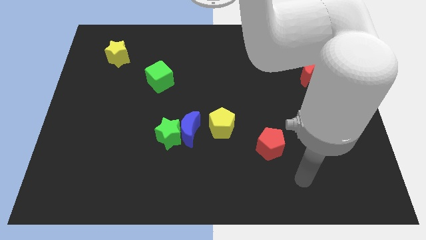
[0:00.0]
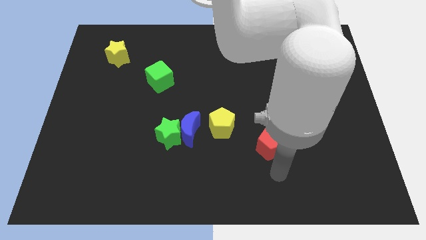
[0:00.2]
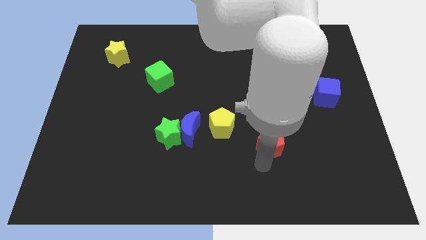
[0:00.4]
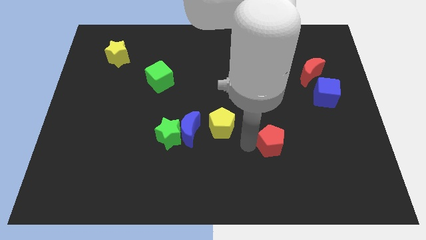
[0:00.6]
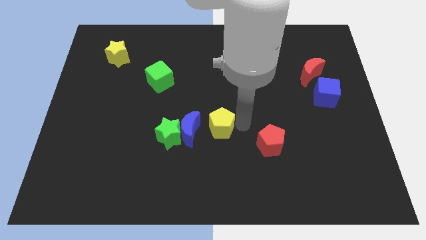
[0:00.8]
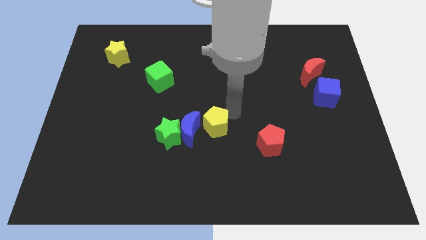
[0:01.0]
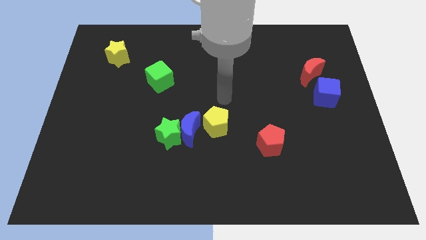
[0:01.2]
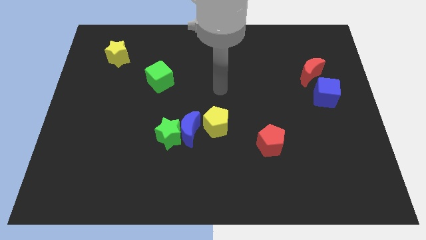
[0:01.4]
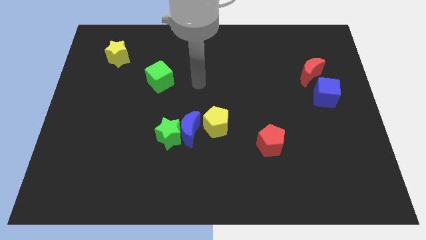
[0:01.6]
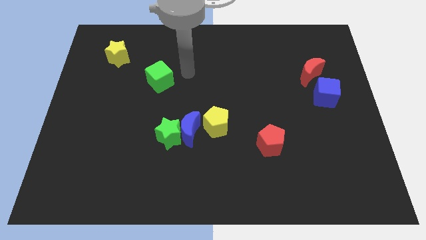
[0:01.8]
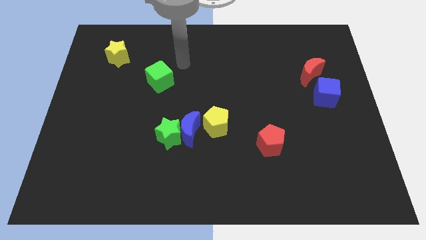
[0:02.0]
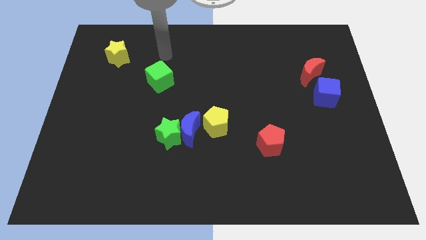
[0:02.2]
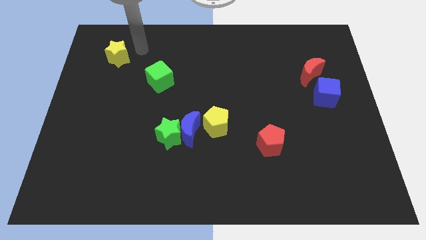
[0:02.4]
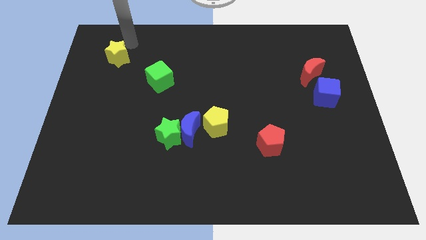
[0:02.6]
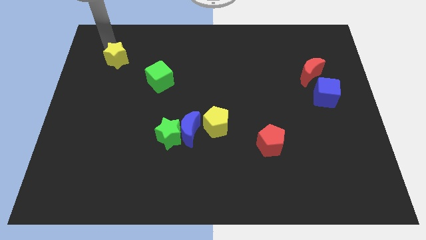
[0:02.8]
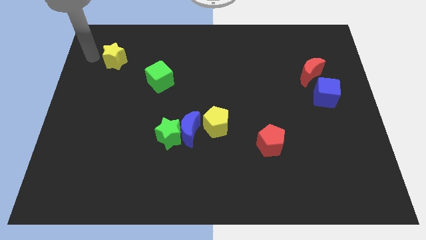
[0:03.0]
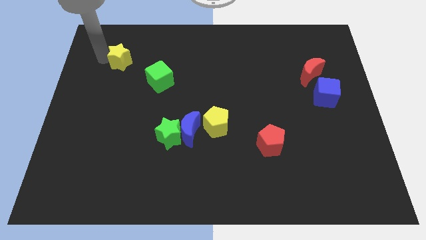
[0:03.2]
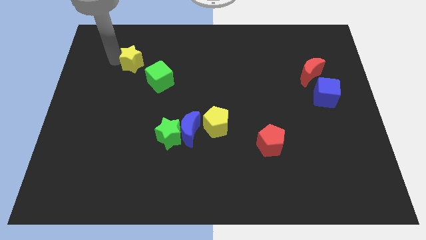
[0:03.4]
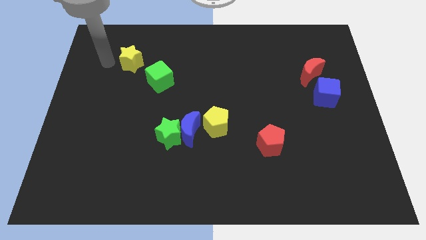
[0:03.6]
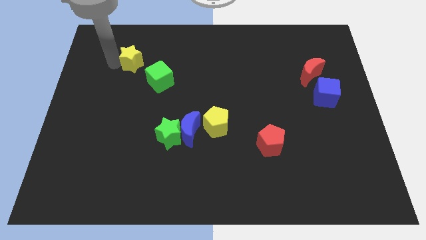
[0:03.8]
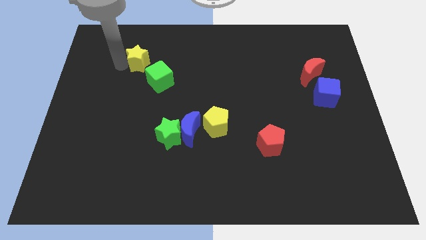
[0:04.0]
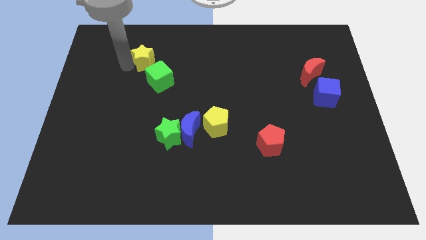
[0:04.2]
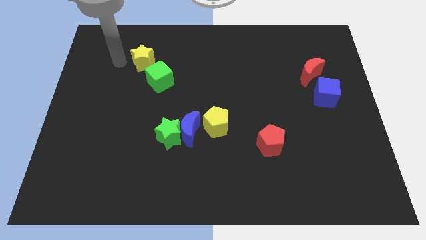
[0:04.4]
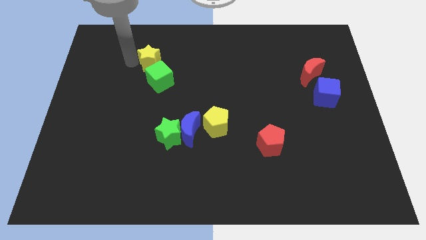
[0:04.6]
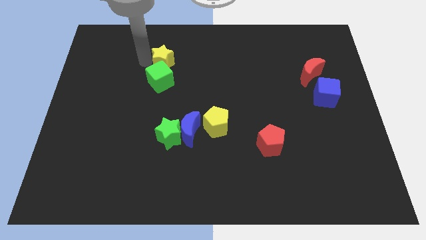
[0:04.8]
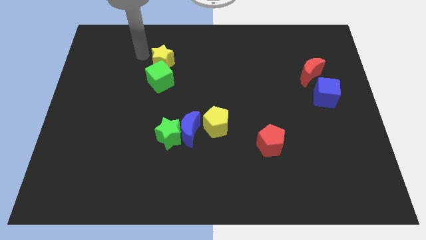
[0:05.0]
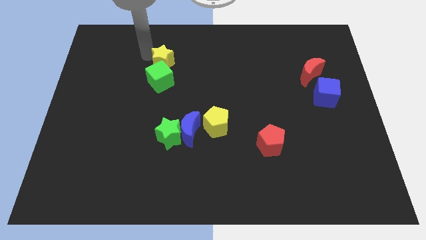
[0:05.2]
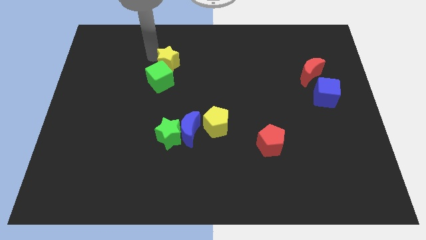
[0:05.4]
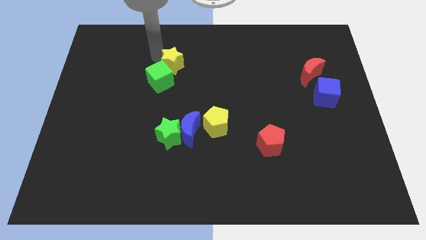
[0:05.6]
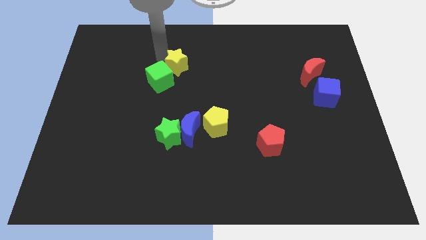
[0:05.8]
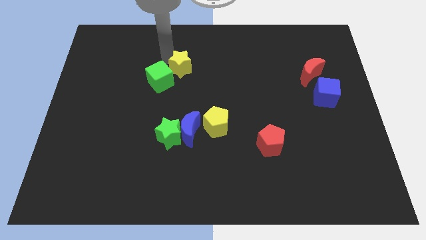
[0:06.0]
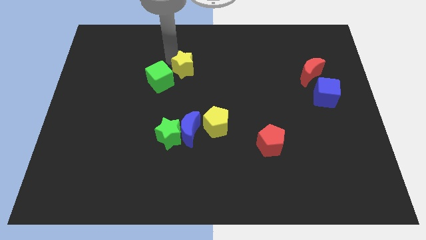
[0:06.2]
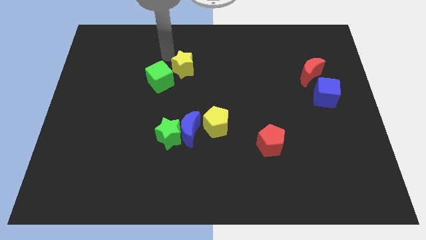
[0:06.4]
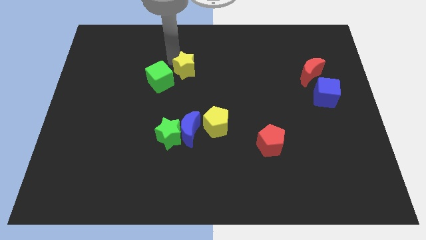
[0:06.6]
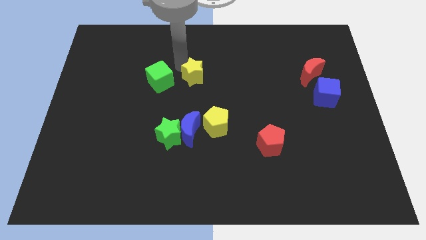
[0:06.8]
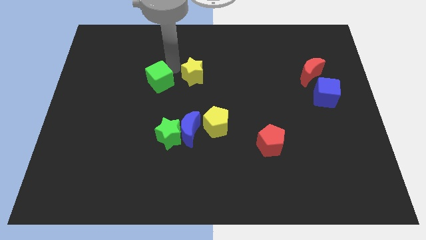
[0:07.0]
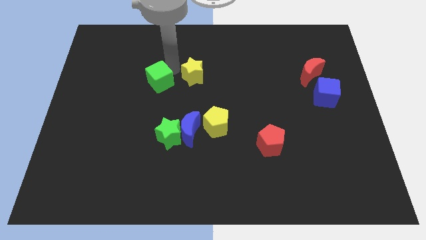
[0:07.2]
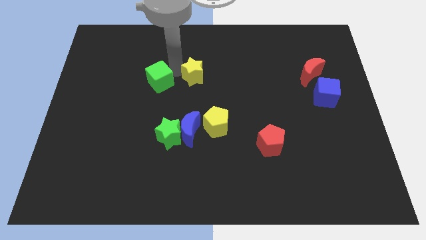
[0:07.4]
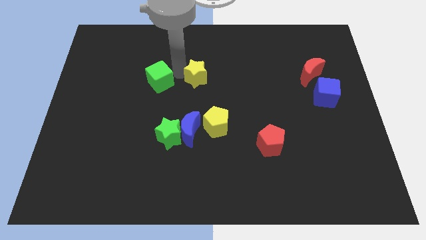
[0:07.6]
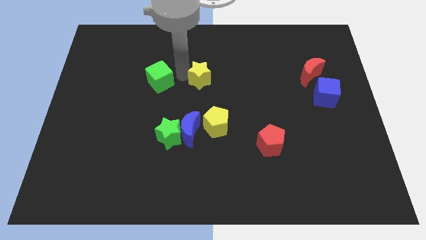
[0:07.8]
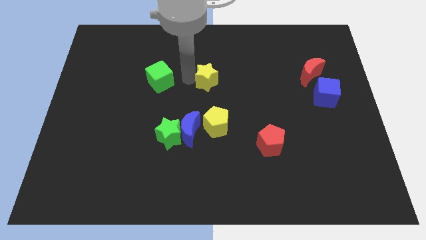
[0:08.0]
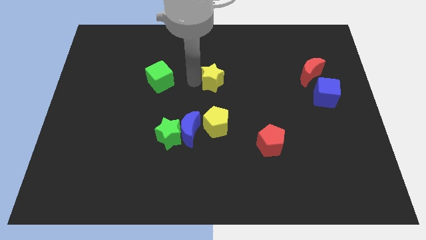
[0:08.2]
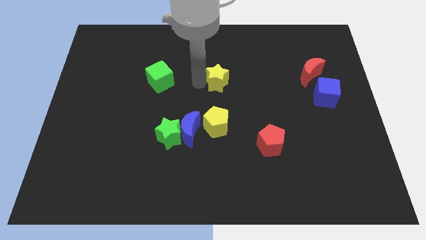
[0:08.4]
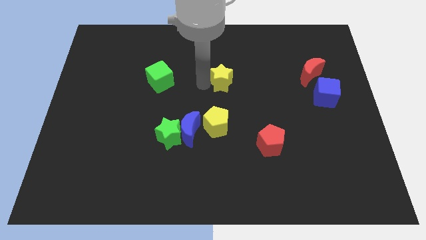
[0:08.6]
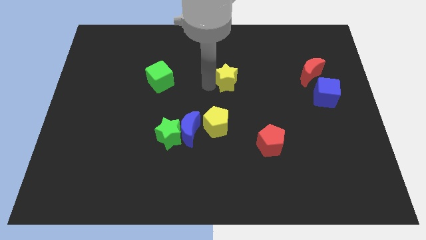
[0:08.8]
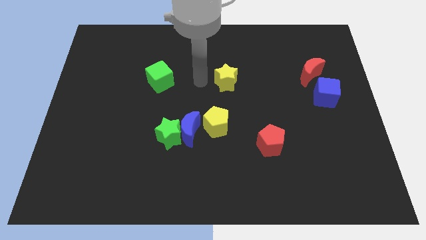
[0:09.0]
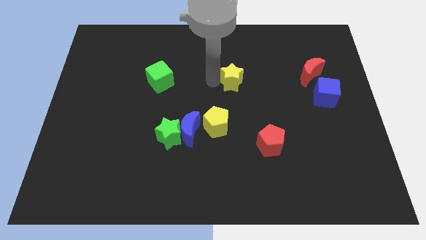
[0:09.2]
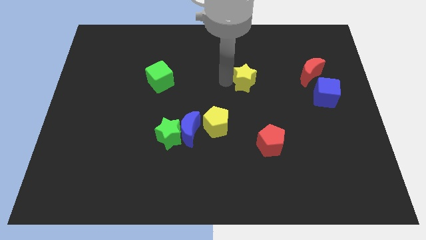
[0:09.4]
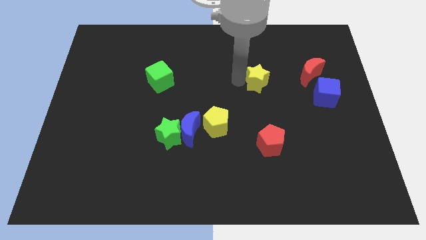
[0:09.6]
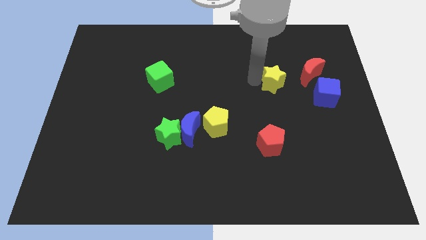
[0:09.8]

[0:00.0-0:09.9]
put the yellow star diagonally down and to the left of the red moon

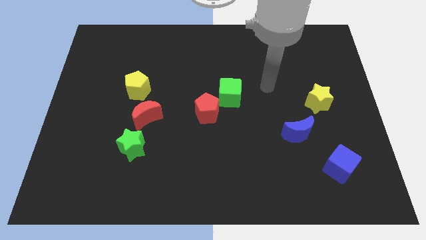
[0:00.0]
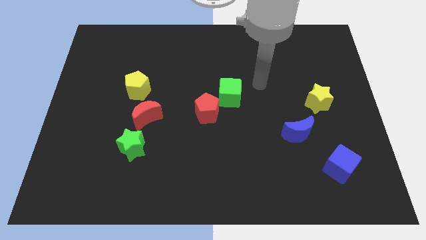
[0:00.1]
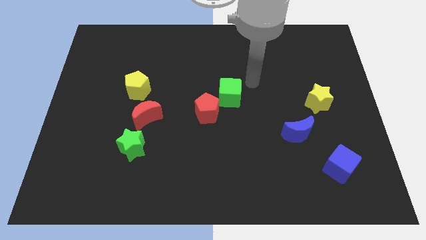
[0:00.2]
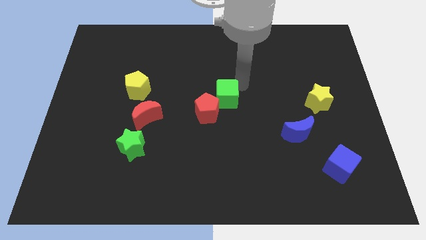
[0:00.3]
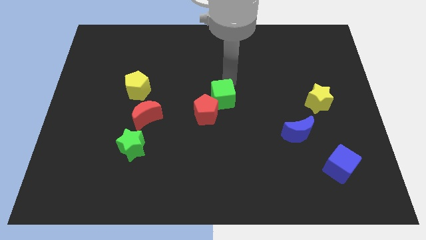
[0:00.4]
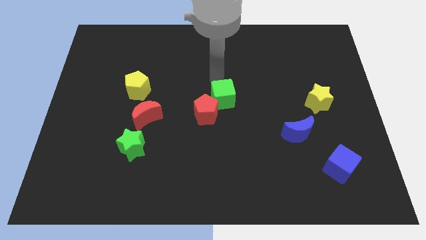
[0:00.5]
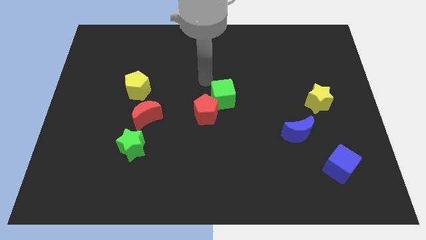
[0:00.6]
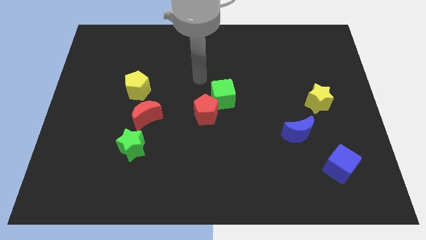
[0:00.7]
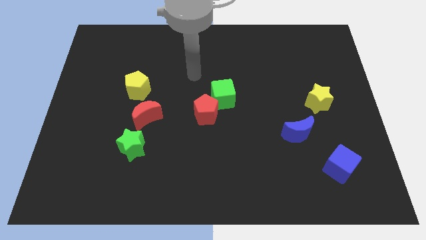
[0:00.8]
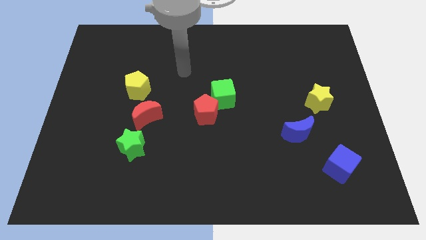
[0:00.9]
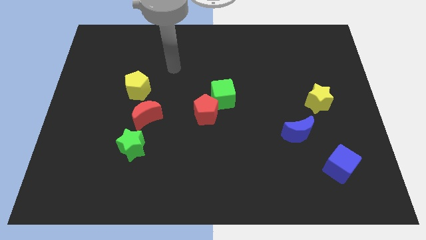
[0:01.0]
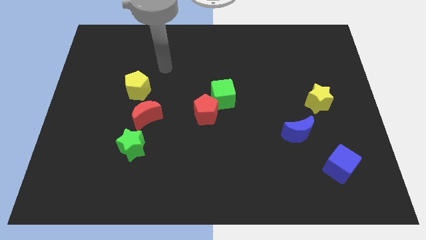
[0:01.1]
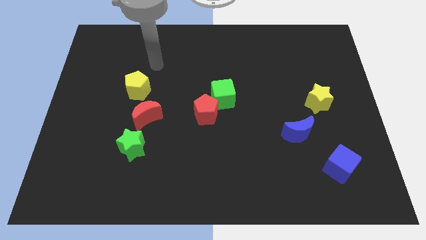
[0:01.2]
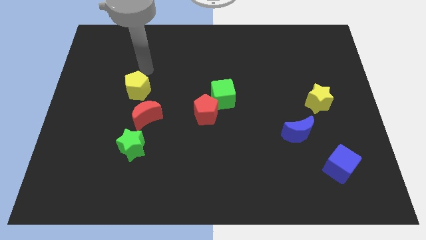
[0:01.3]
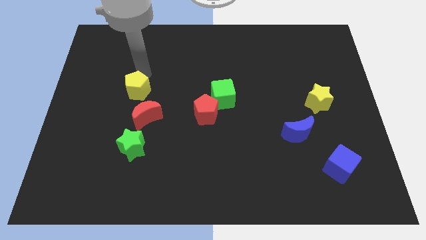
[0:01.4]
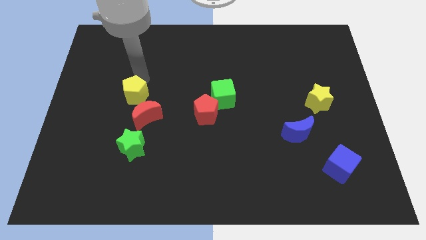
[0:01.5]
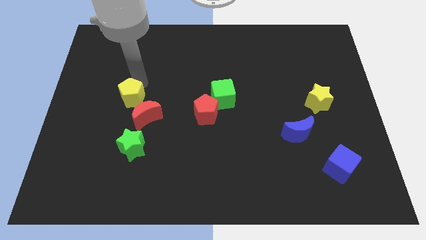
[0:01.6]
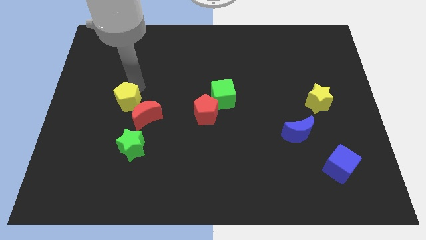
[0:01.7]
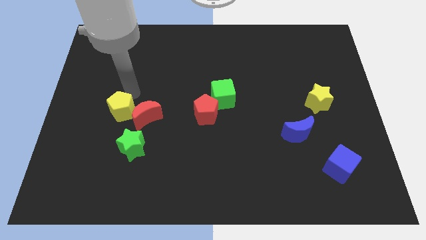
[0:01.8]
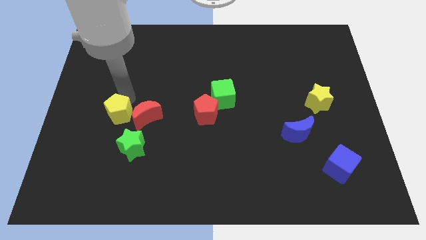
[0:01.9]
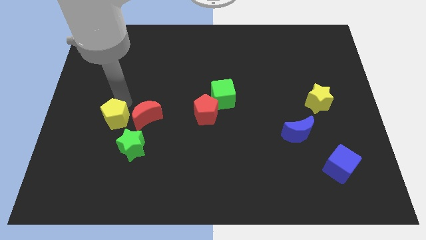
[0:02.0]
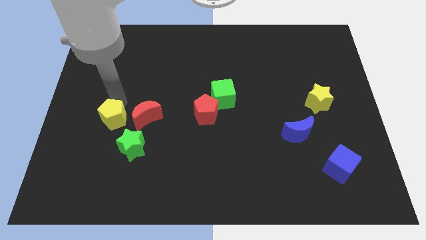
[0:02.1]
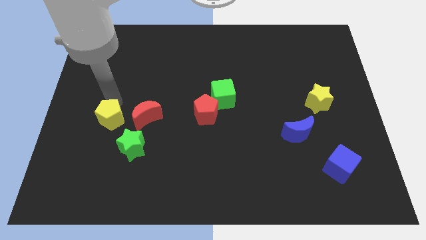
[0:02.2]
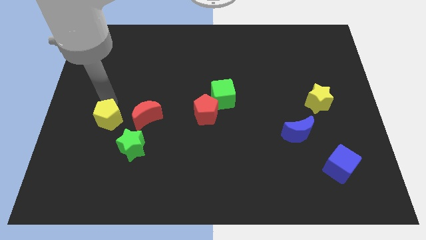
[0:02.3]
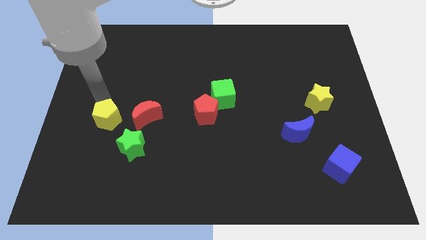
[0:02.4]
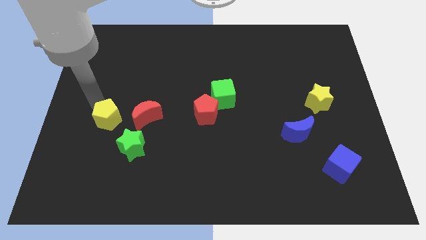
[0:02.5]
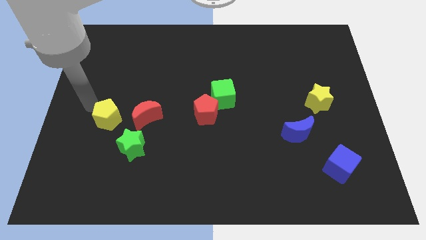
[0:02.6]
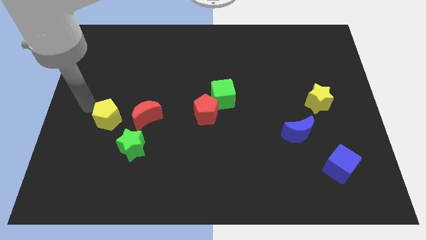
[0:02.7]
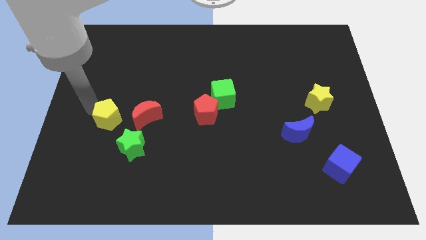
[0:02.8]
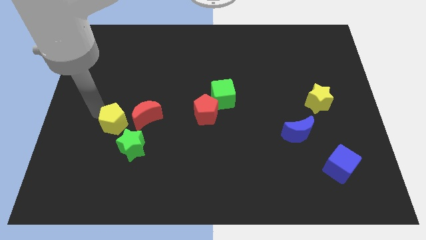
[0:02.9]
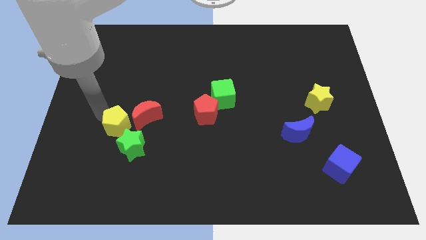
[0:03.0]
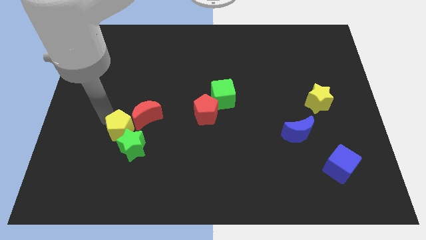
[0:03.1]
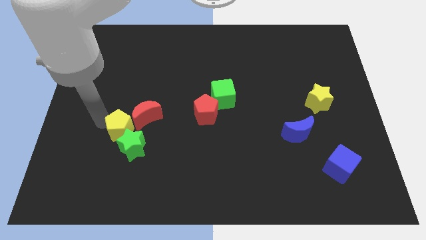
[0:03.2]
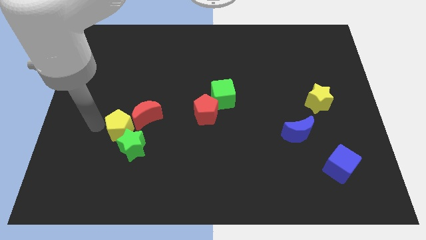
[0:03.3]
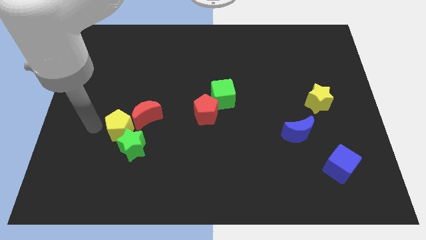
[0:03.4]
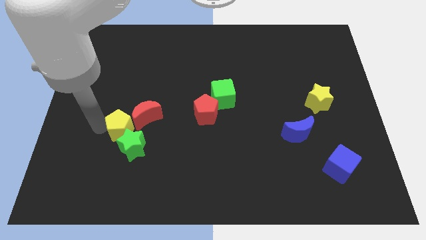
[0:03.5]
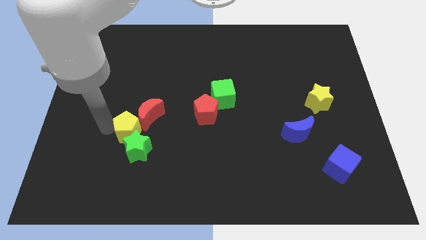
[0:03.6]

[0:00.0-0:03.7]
push the yellow pentagon to the bottom of the red moon

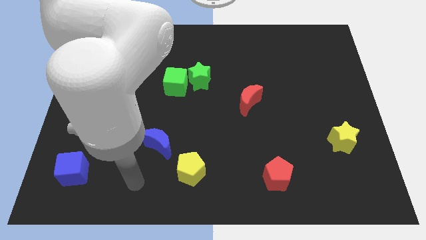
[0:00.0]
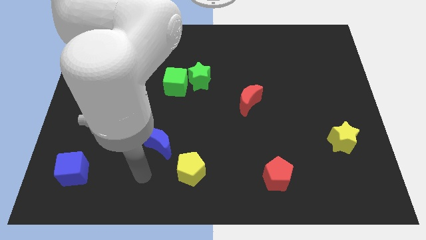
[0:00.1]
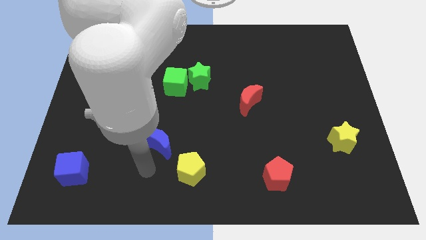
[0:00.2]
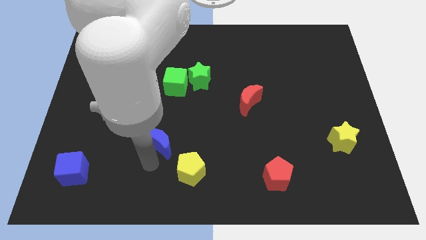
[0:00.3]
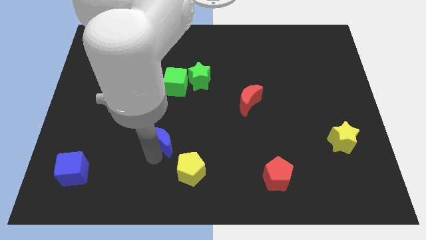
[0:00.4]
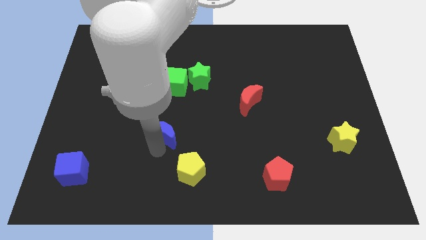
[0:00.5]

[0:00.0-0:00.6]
slide the blue moon to the bottom of the green cube
